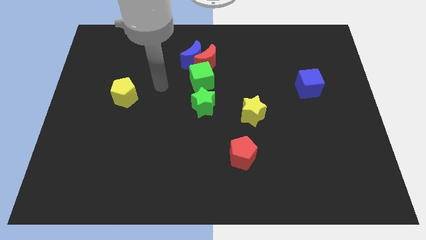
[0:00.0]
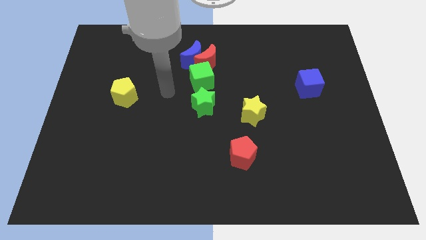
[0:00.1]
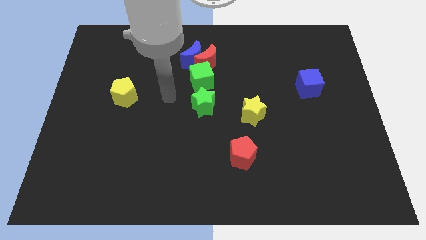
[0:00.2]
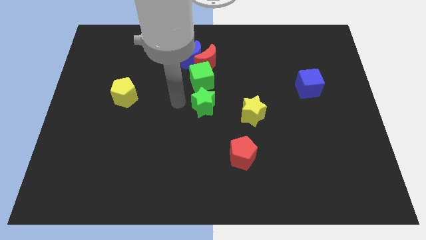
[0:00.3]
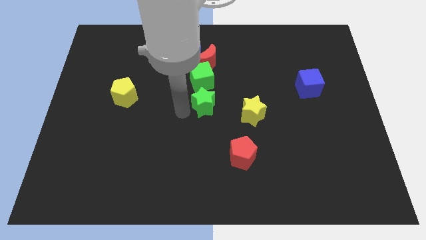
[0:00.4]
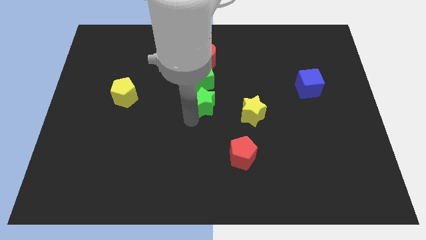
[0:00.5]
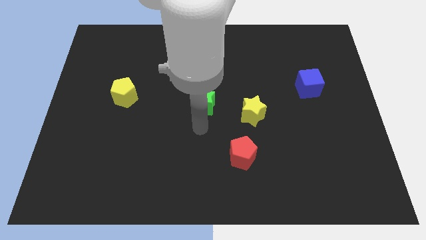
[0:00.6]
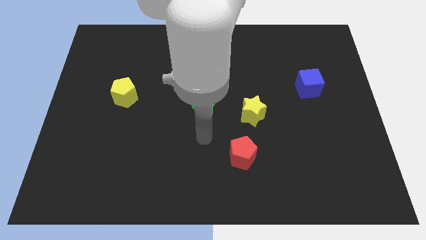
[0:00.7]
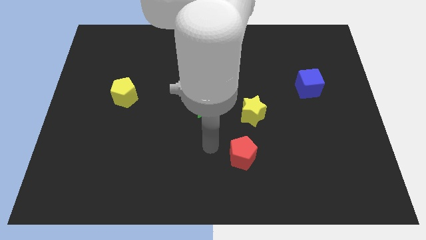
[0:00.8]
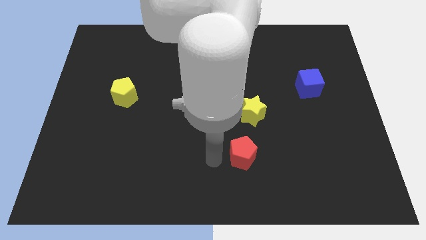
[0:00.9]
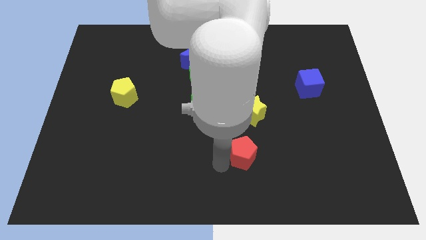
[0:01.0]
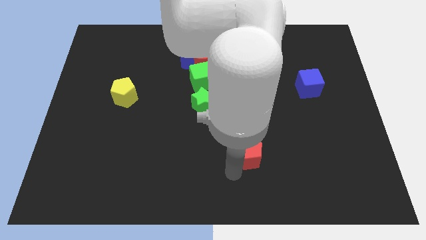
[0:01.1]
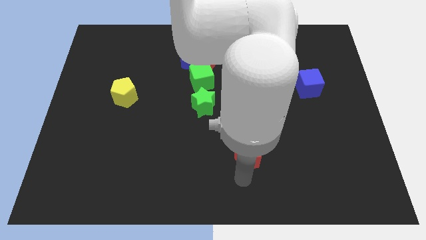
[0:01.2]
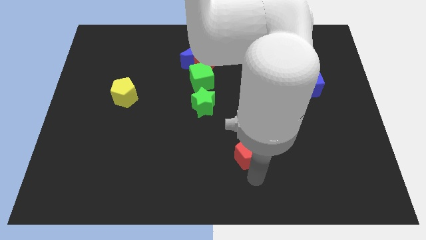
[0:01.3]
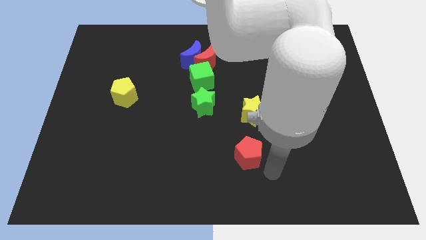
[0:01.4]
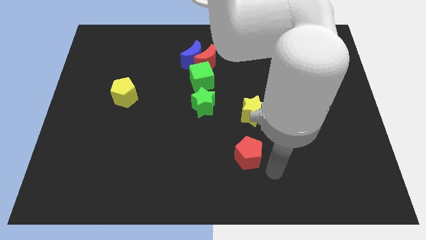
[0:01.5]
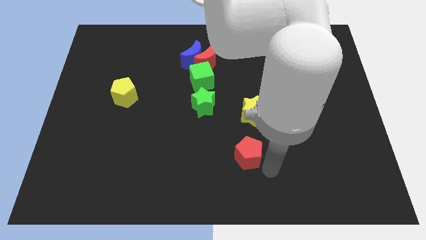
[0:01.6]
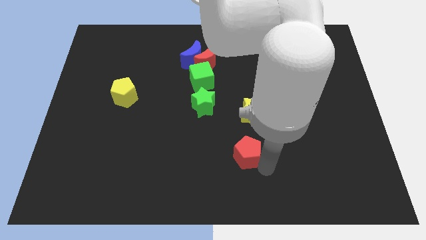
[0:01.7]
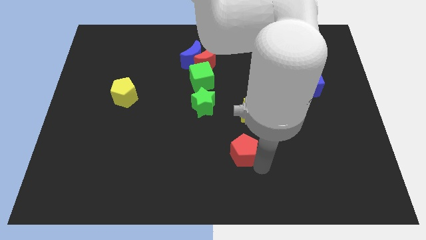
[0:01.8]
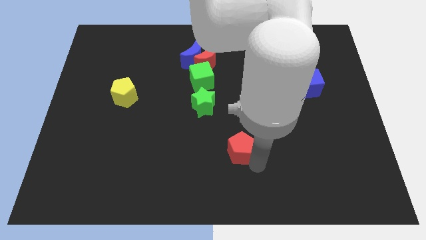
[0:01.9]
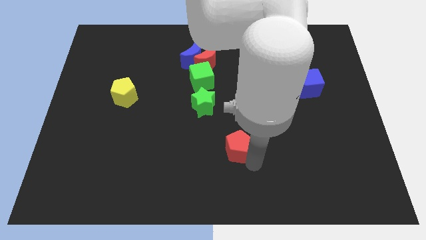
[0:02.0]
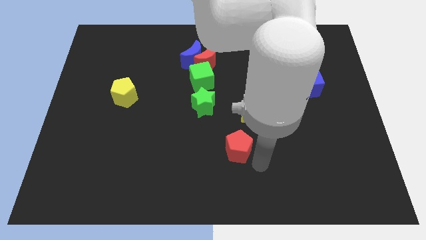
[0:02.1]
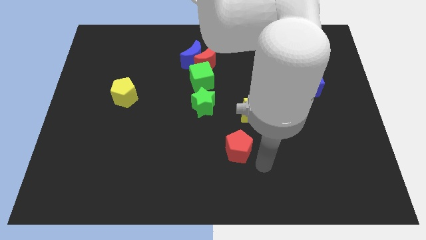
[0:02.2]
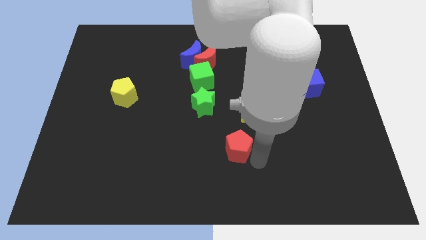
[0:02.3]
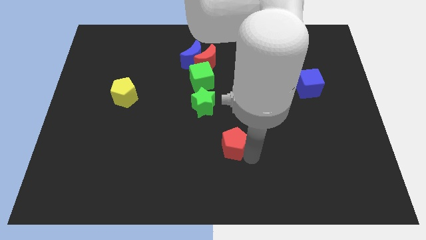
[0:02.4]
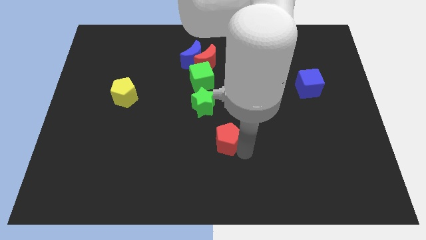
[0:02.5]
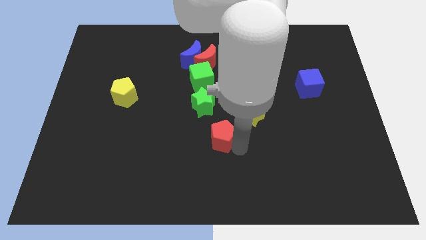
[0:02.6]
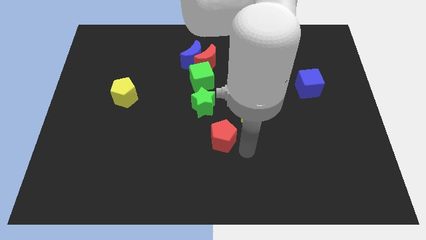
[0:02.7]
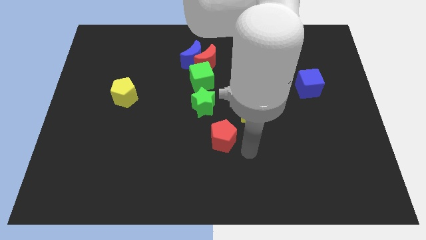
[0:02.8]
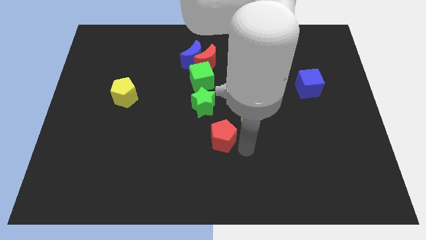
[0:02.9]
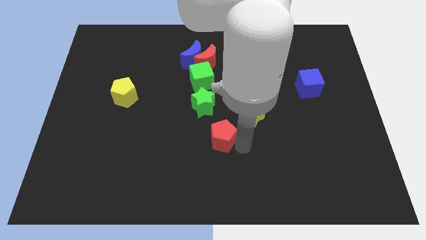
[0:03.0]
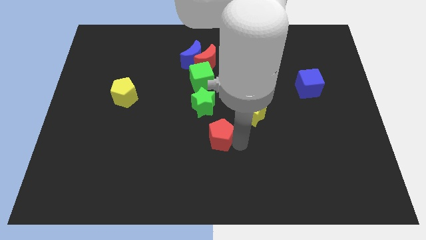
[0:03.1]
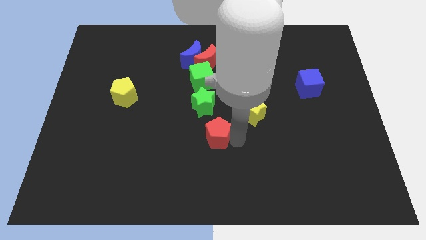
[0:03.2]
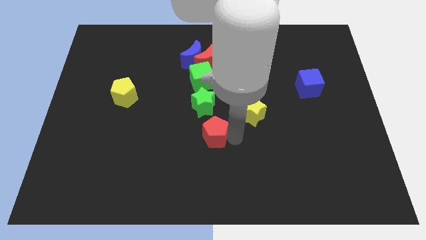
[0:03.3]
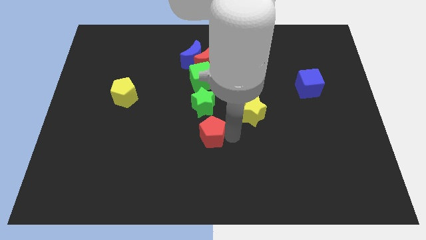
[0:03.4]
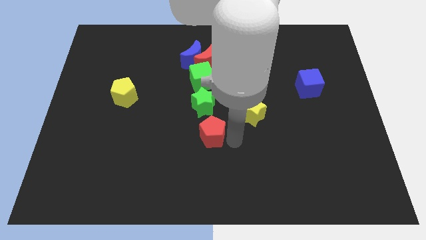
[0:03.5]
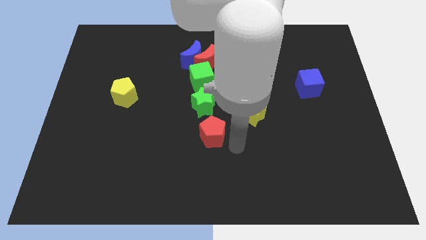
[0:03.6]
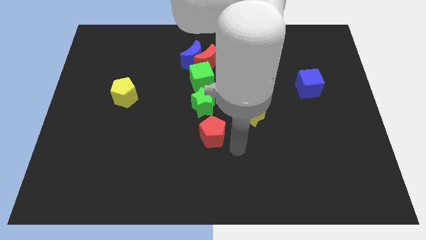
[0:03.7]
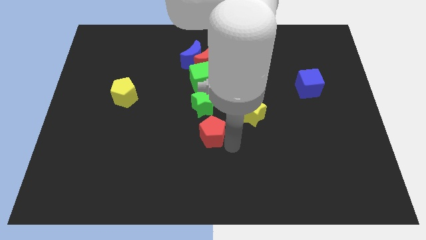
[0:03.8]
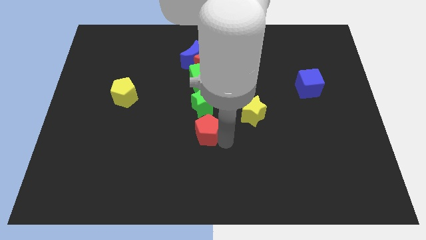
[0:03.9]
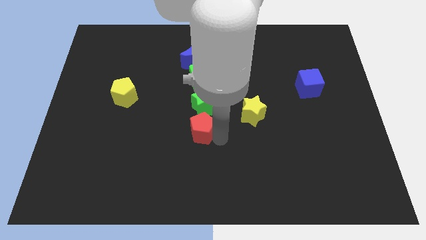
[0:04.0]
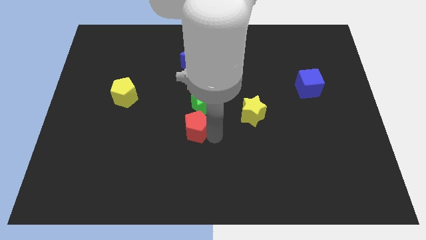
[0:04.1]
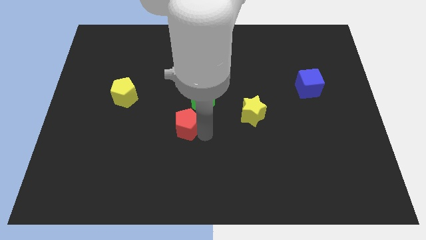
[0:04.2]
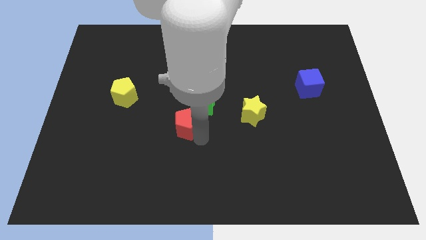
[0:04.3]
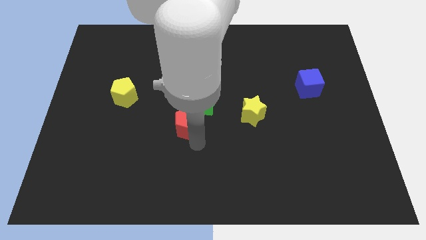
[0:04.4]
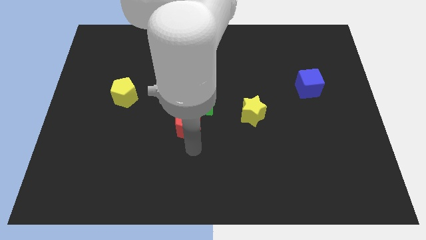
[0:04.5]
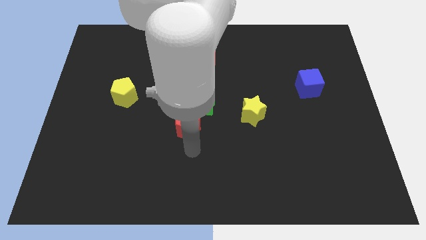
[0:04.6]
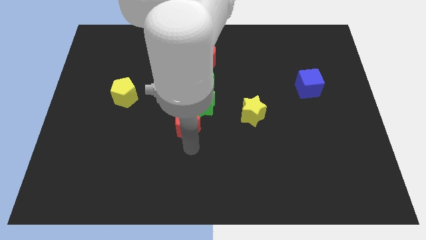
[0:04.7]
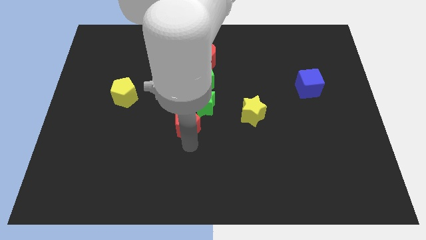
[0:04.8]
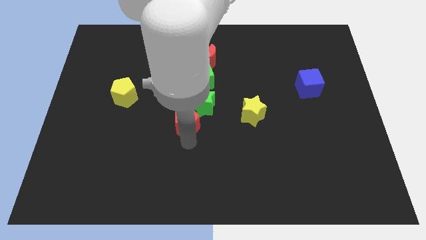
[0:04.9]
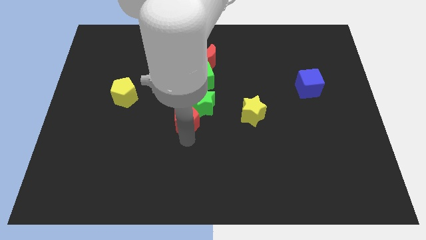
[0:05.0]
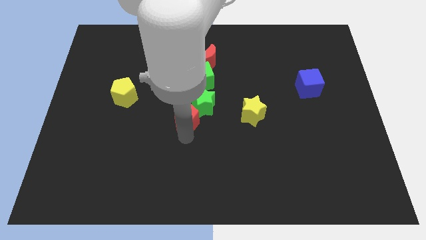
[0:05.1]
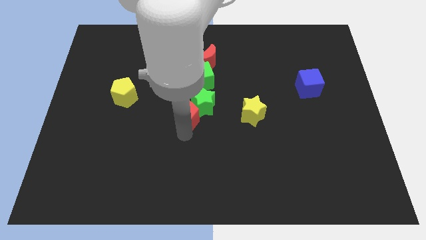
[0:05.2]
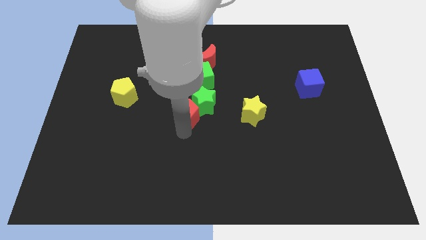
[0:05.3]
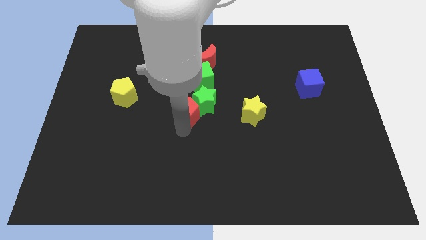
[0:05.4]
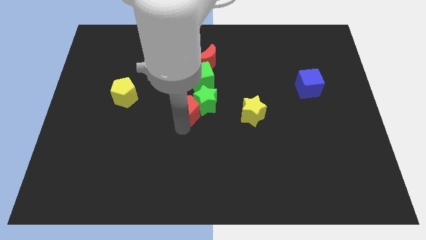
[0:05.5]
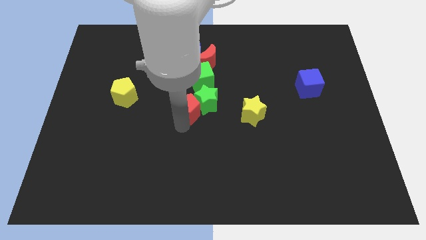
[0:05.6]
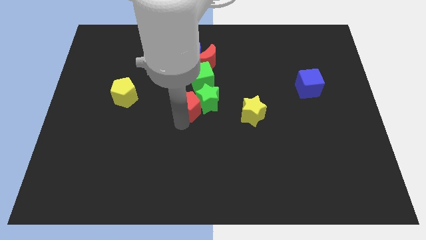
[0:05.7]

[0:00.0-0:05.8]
slide the red pentagon below the blue moon

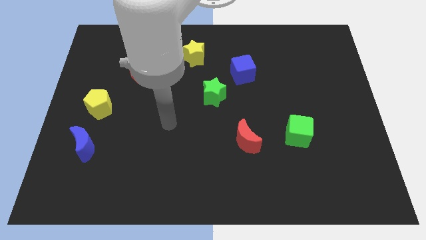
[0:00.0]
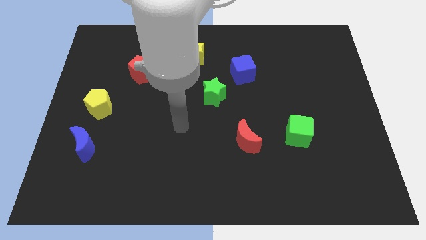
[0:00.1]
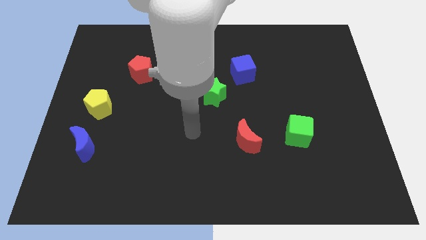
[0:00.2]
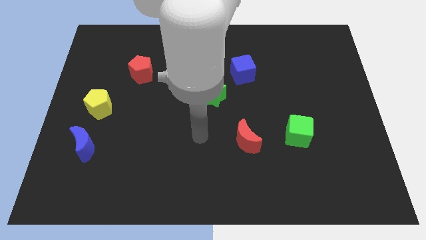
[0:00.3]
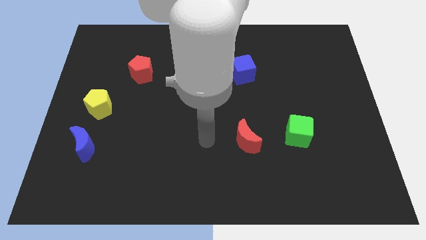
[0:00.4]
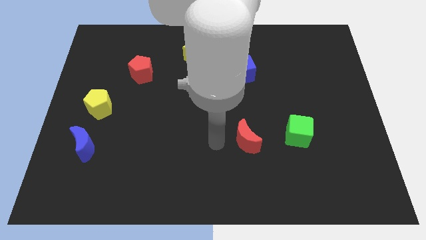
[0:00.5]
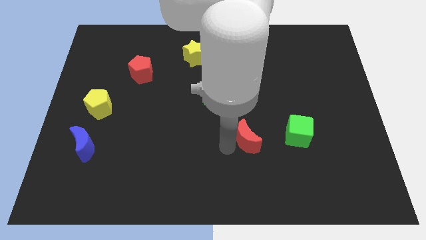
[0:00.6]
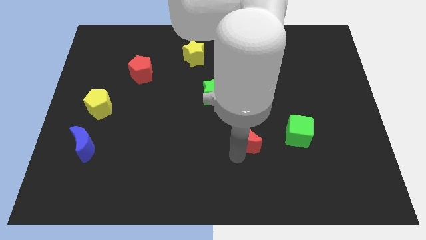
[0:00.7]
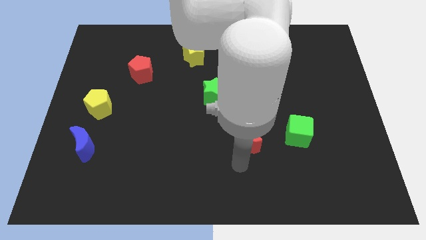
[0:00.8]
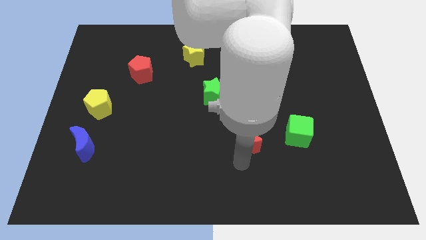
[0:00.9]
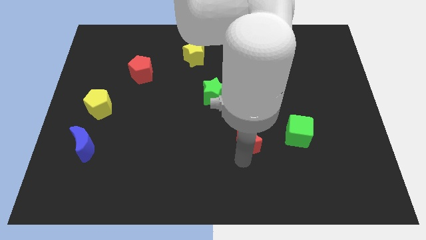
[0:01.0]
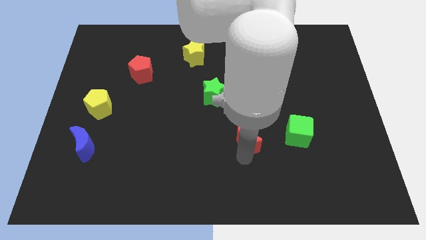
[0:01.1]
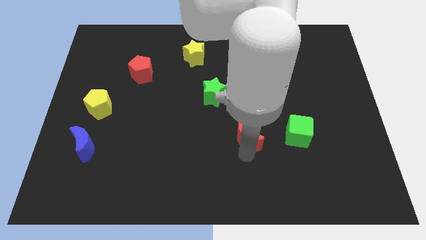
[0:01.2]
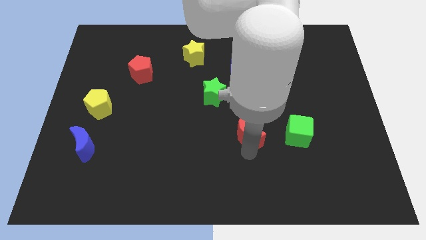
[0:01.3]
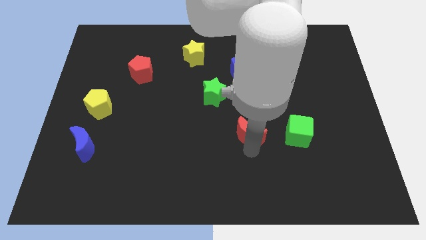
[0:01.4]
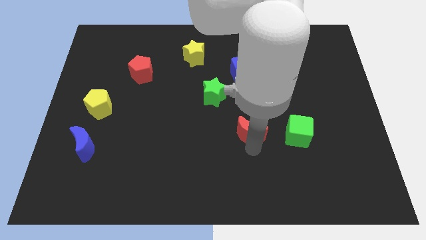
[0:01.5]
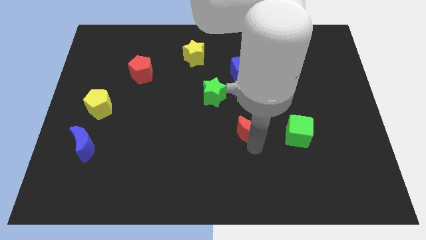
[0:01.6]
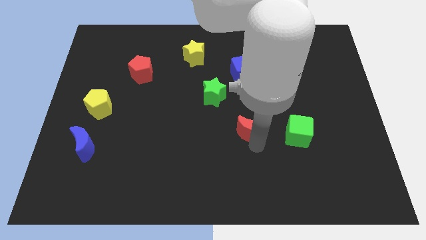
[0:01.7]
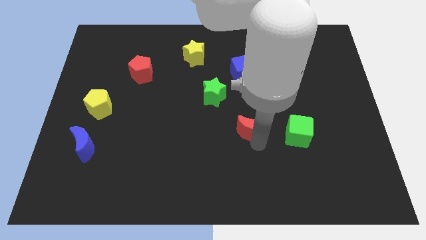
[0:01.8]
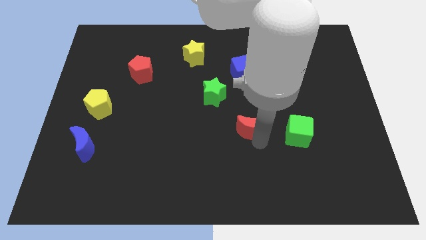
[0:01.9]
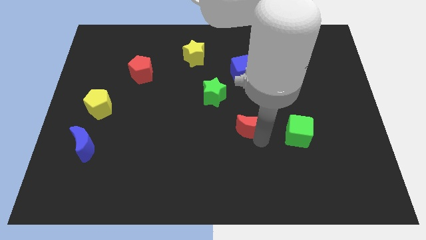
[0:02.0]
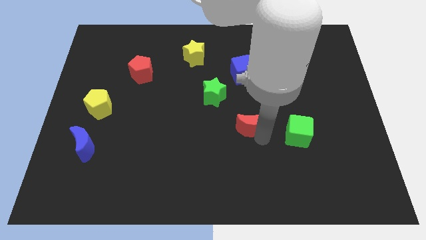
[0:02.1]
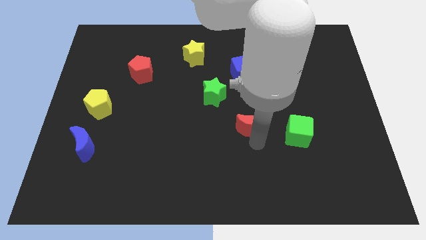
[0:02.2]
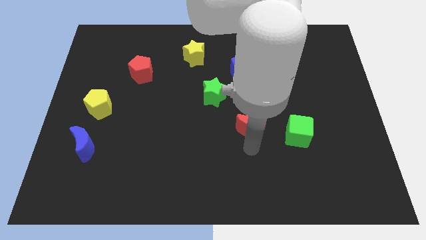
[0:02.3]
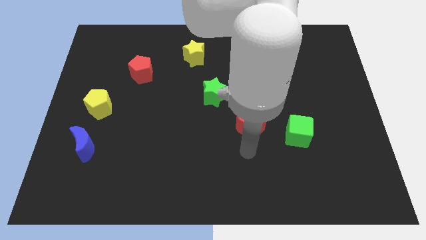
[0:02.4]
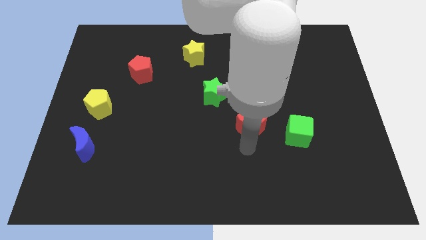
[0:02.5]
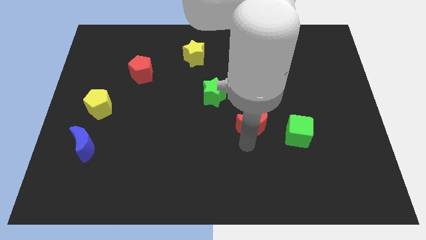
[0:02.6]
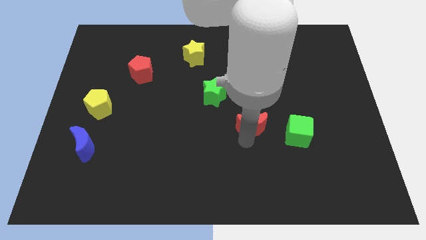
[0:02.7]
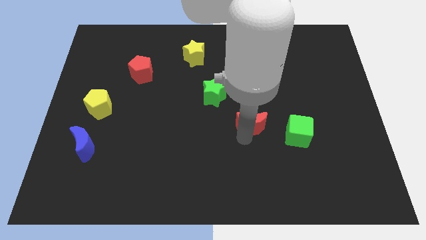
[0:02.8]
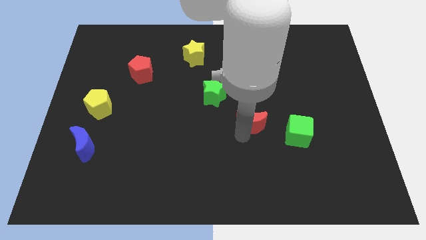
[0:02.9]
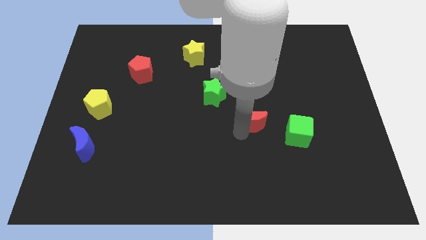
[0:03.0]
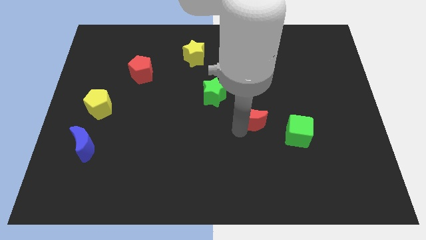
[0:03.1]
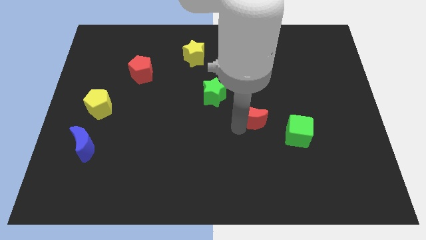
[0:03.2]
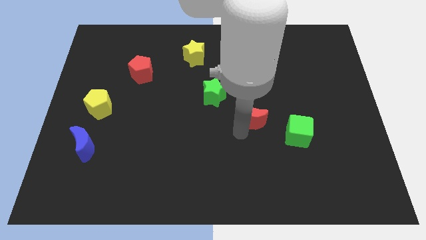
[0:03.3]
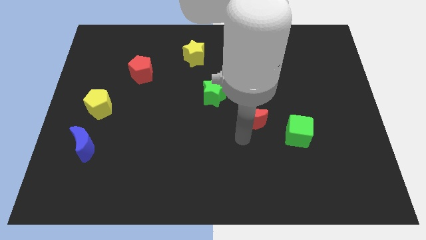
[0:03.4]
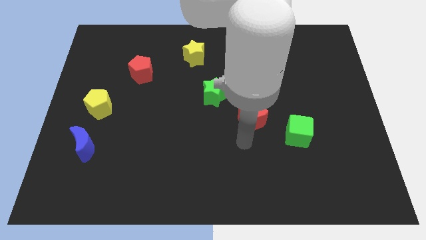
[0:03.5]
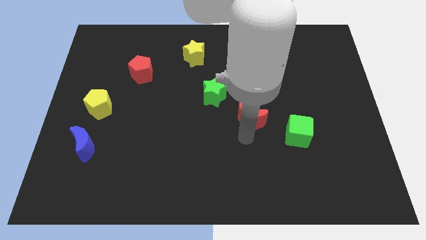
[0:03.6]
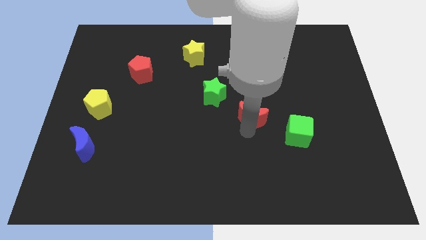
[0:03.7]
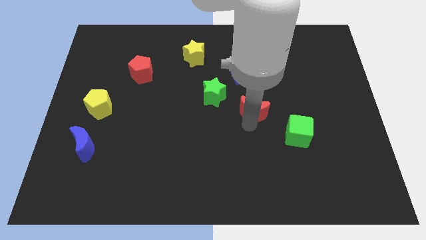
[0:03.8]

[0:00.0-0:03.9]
put the red moon right of the green star
